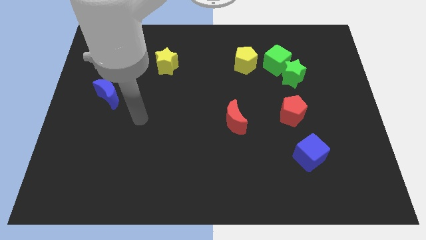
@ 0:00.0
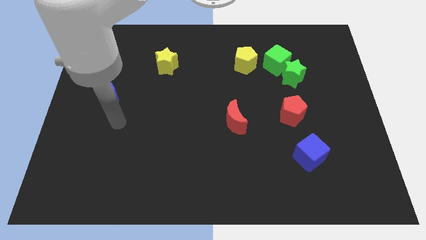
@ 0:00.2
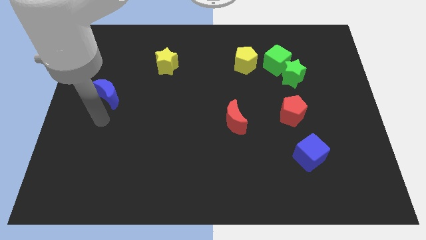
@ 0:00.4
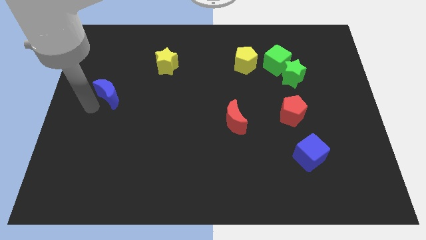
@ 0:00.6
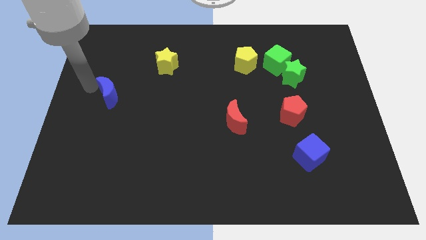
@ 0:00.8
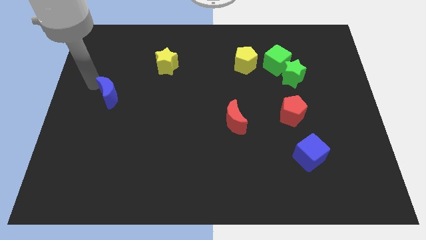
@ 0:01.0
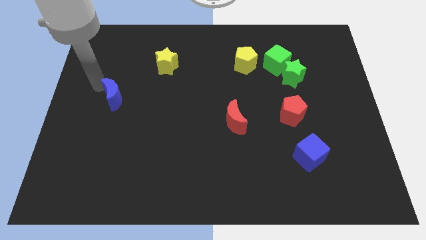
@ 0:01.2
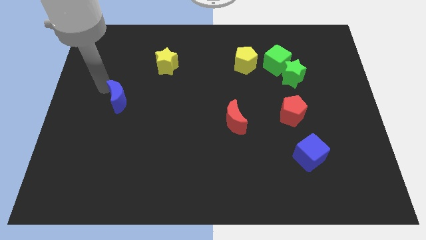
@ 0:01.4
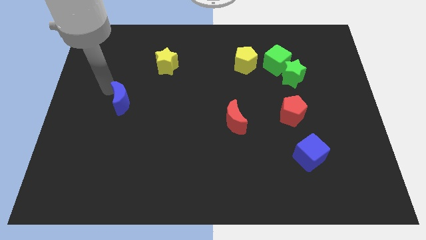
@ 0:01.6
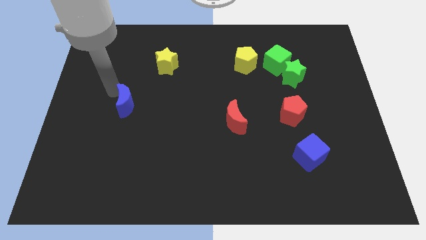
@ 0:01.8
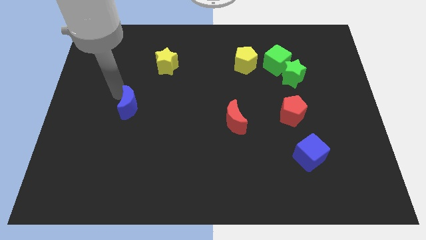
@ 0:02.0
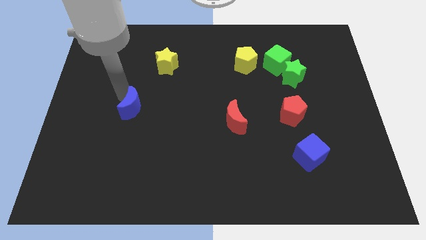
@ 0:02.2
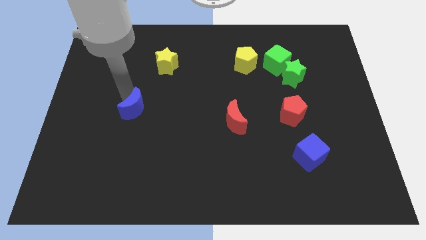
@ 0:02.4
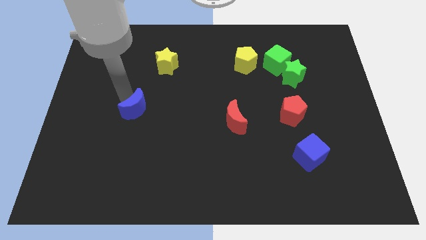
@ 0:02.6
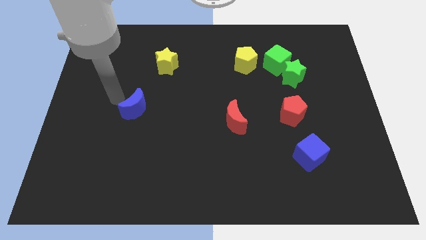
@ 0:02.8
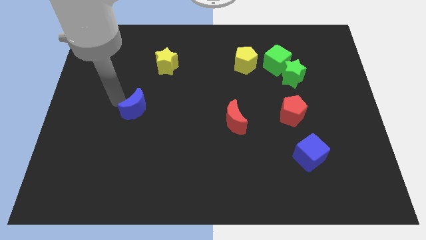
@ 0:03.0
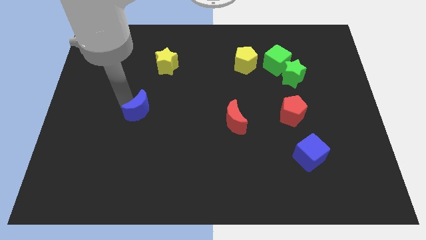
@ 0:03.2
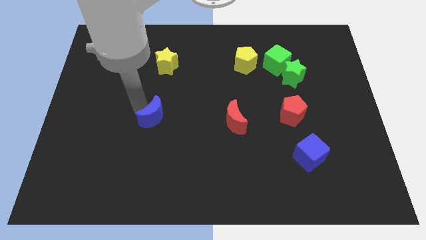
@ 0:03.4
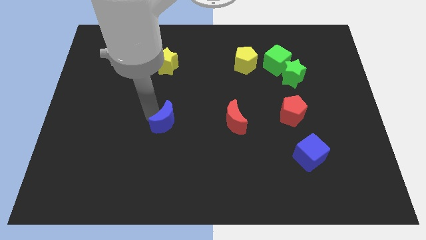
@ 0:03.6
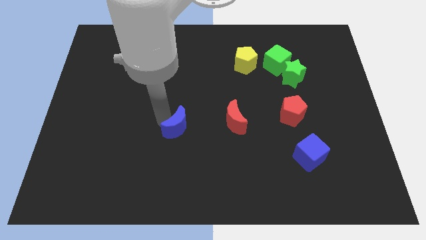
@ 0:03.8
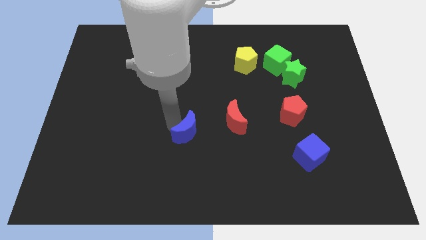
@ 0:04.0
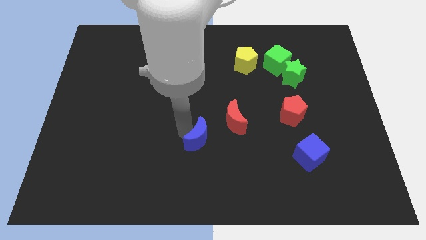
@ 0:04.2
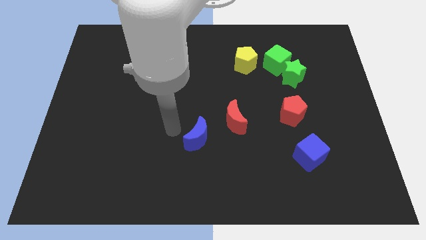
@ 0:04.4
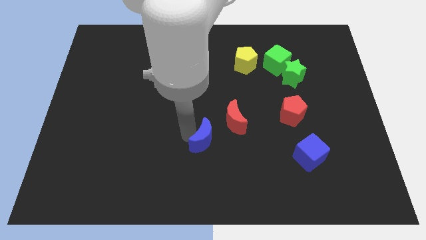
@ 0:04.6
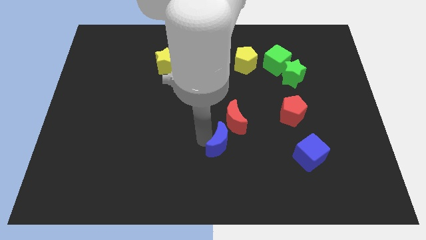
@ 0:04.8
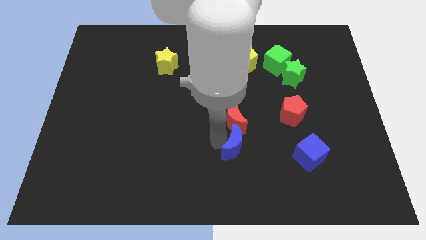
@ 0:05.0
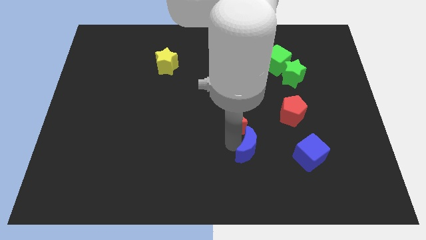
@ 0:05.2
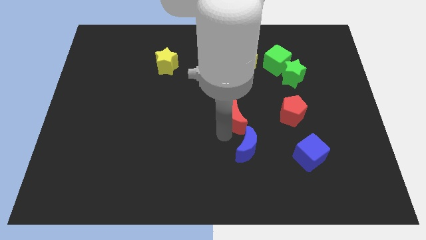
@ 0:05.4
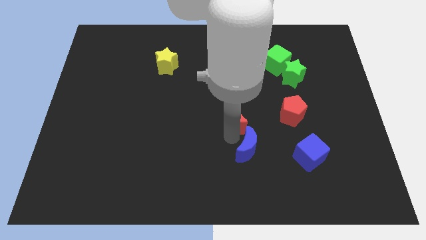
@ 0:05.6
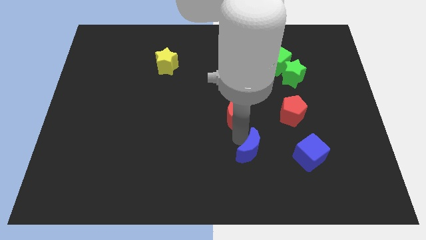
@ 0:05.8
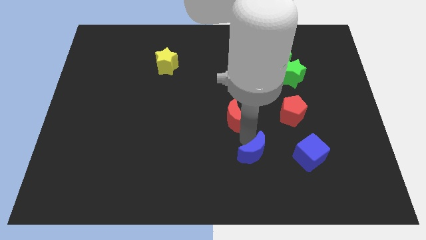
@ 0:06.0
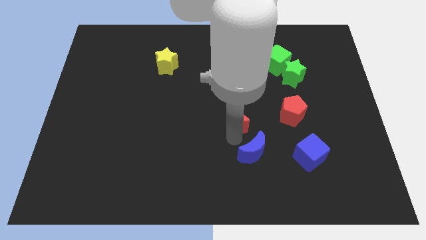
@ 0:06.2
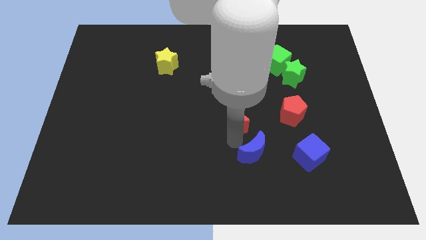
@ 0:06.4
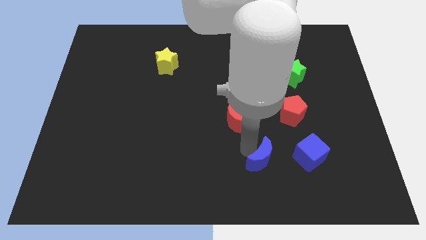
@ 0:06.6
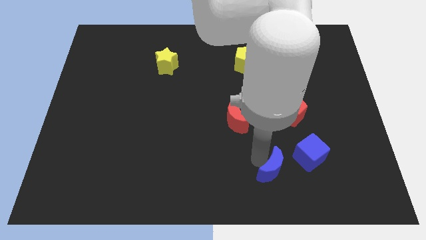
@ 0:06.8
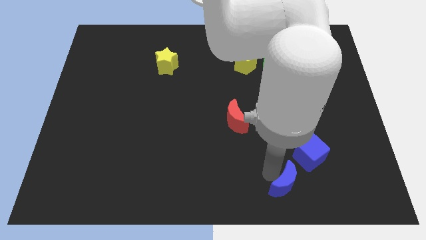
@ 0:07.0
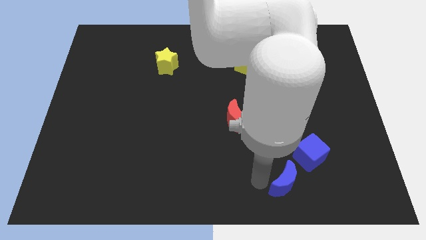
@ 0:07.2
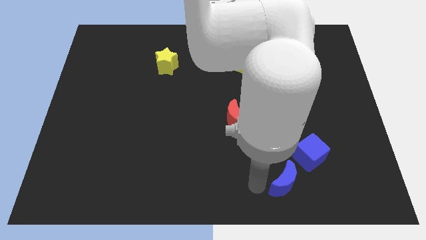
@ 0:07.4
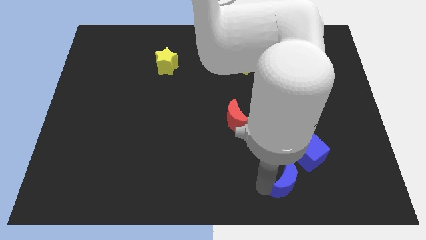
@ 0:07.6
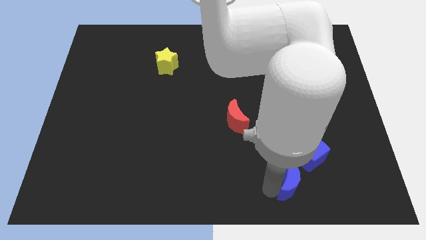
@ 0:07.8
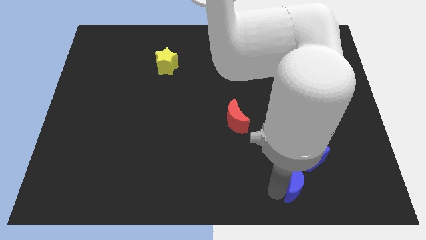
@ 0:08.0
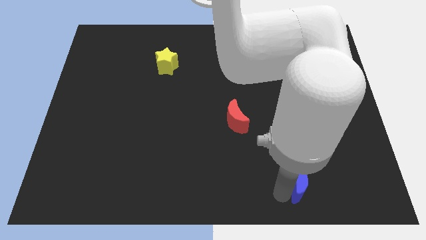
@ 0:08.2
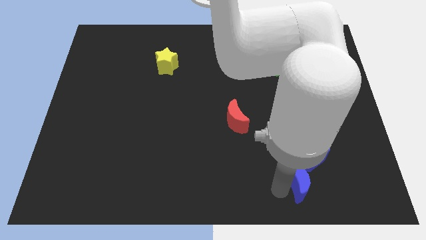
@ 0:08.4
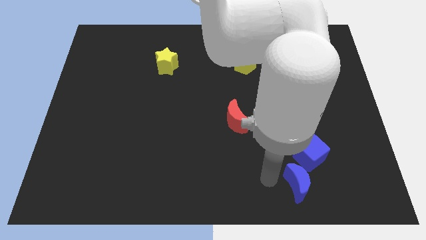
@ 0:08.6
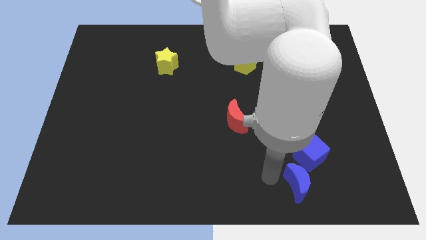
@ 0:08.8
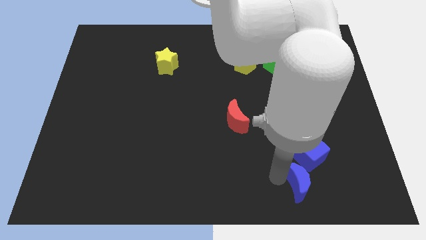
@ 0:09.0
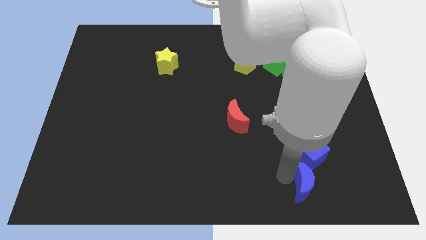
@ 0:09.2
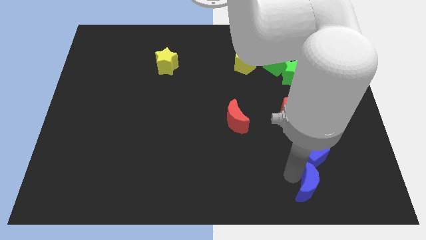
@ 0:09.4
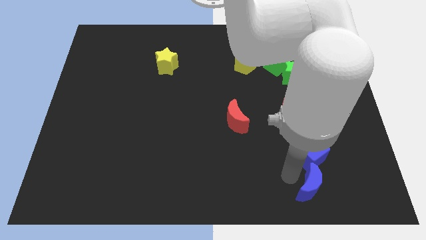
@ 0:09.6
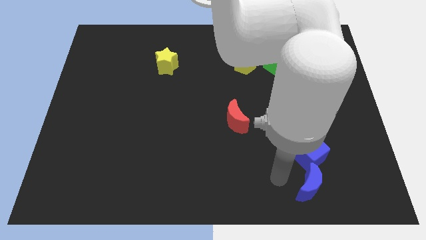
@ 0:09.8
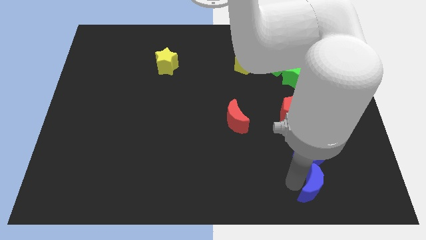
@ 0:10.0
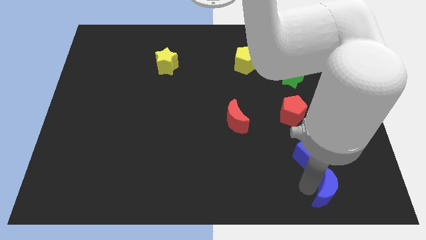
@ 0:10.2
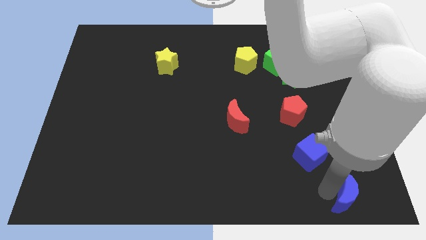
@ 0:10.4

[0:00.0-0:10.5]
push the blue moon to the bottom right

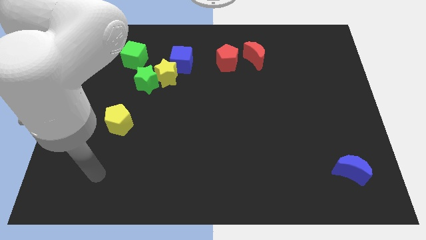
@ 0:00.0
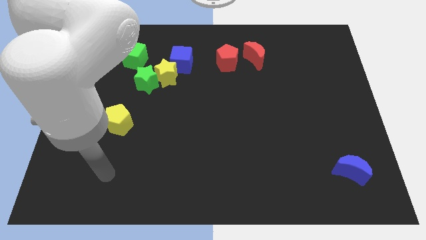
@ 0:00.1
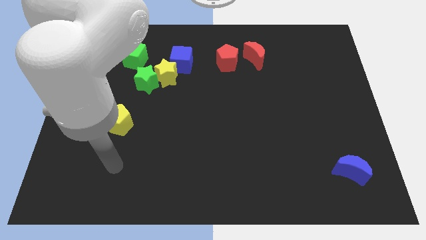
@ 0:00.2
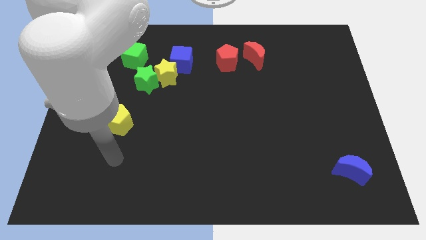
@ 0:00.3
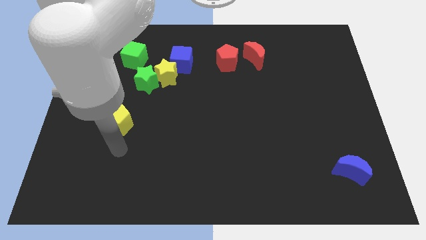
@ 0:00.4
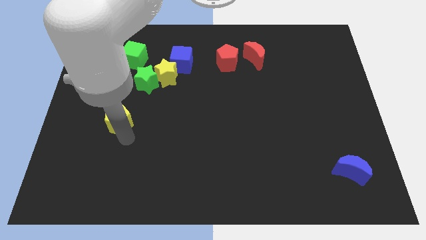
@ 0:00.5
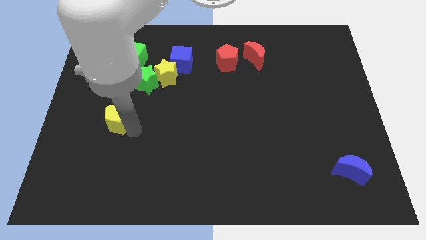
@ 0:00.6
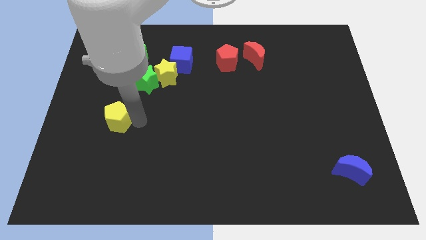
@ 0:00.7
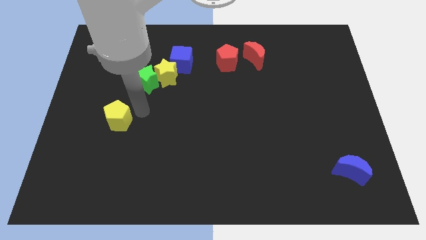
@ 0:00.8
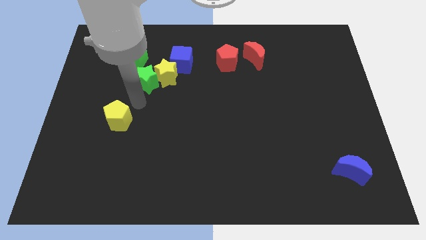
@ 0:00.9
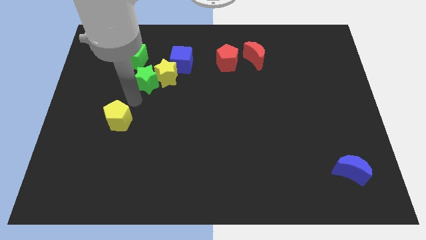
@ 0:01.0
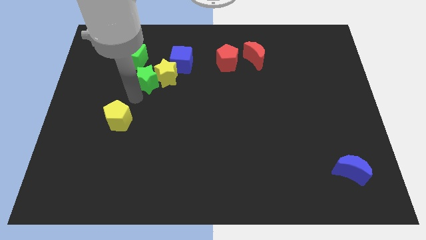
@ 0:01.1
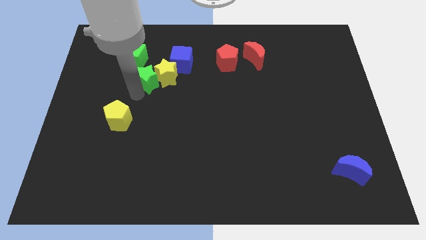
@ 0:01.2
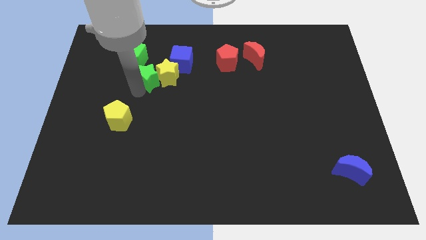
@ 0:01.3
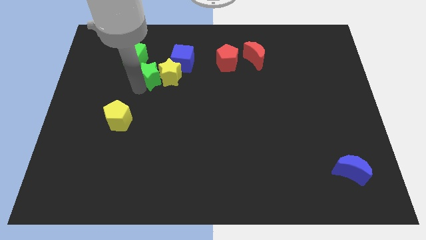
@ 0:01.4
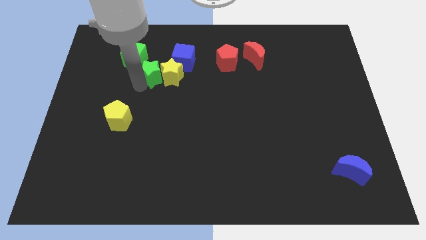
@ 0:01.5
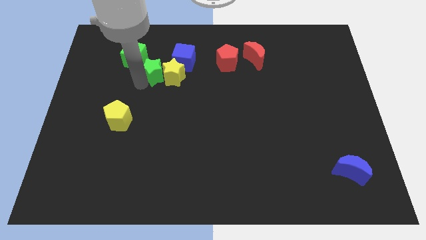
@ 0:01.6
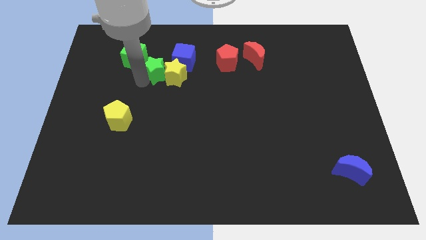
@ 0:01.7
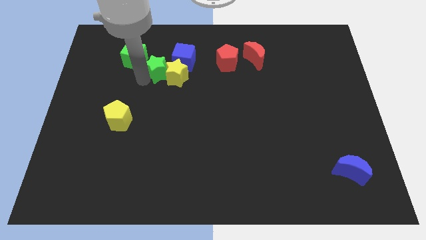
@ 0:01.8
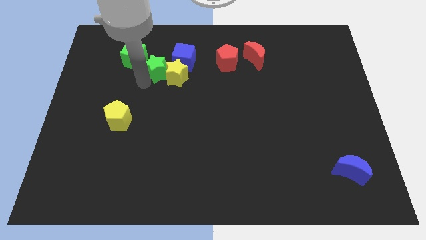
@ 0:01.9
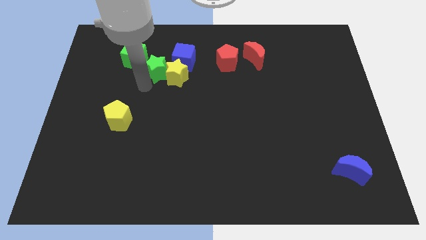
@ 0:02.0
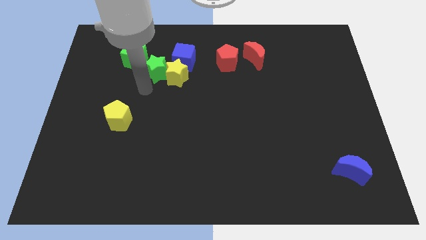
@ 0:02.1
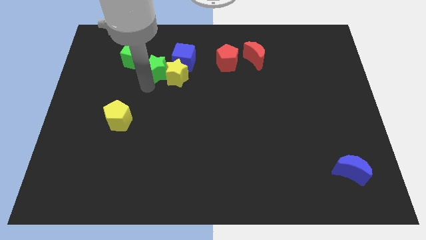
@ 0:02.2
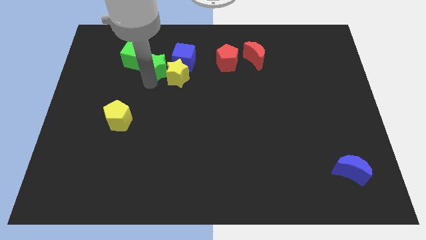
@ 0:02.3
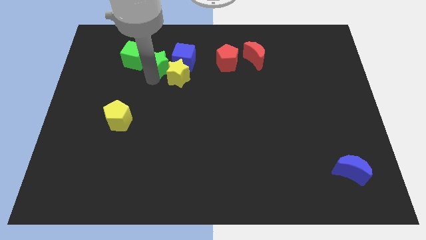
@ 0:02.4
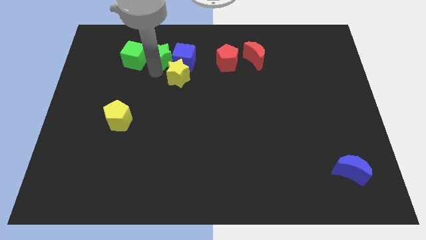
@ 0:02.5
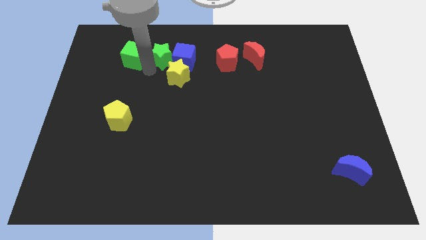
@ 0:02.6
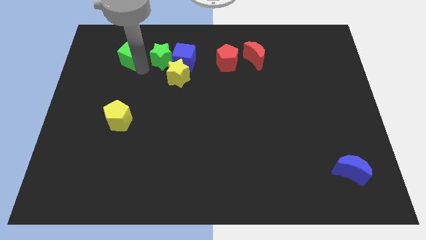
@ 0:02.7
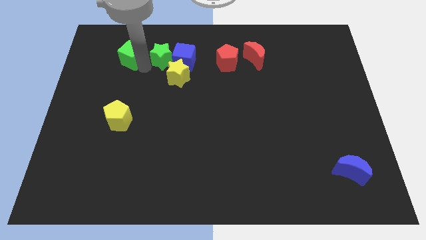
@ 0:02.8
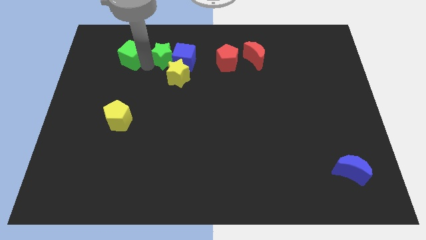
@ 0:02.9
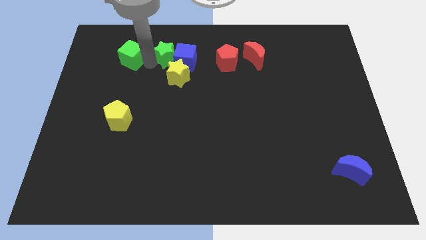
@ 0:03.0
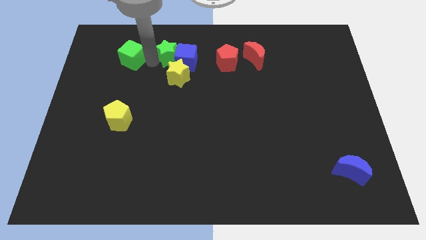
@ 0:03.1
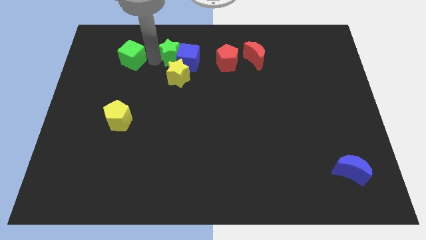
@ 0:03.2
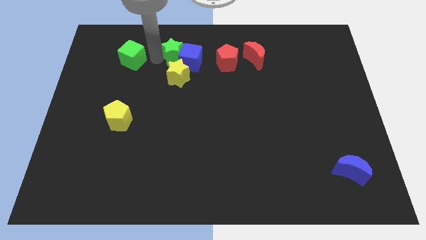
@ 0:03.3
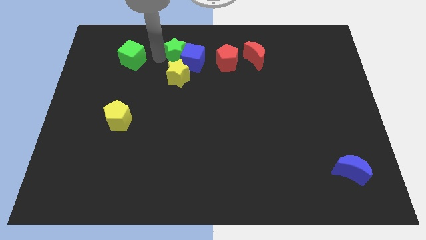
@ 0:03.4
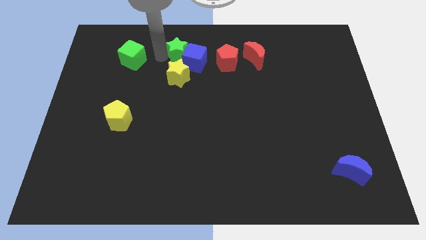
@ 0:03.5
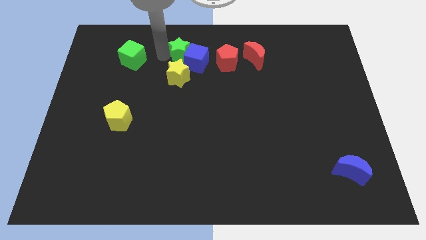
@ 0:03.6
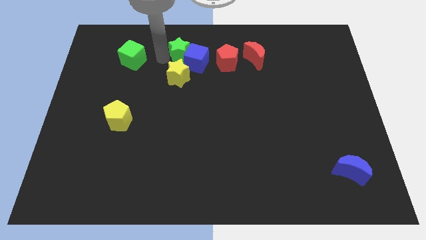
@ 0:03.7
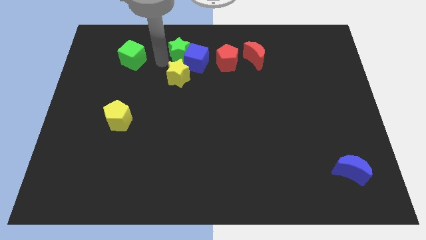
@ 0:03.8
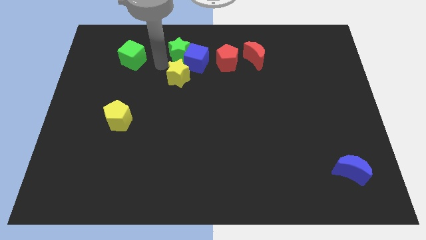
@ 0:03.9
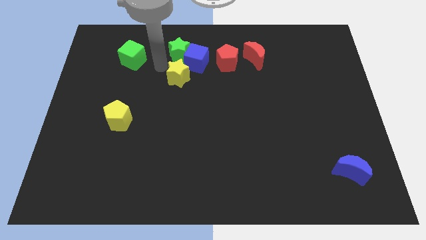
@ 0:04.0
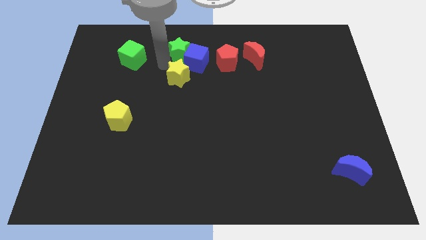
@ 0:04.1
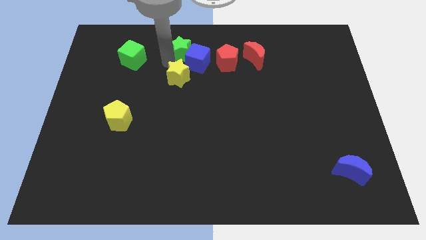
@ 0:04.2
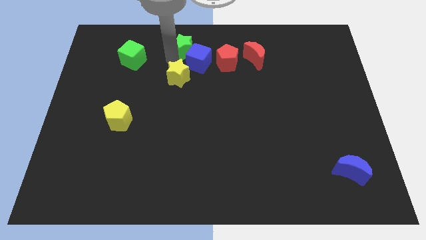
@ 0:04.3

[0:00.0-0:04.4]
move the green star to the top
